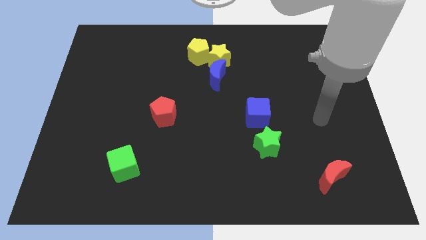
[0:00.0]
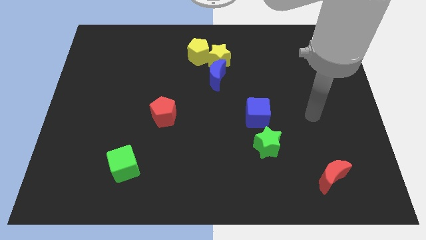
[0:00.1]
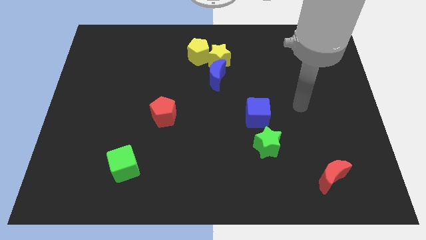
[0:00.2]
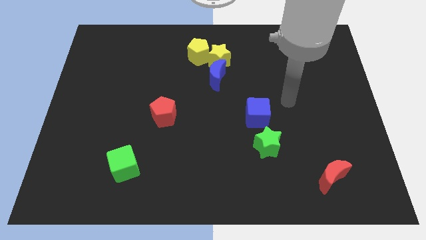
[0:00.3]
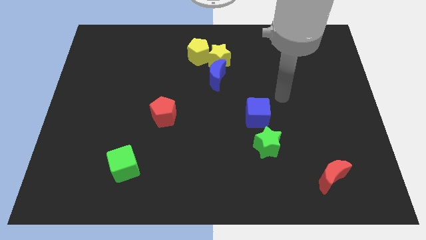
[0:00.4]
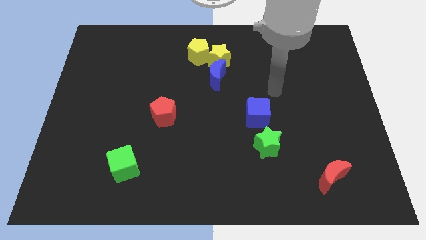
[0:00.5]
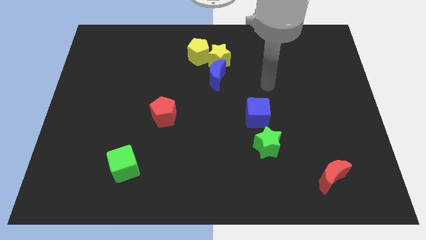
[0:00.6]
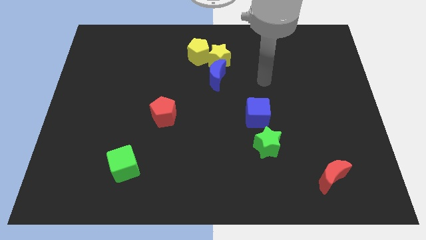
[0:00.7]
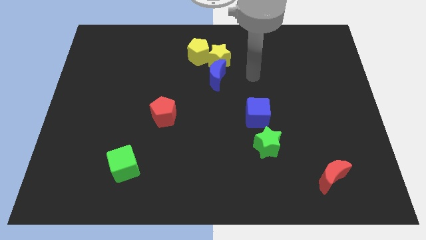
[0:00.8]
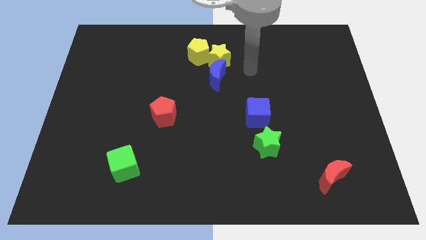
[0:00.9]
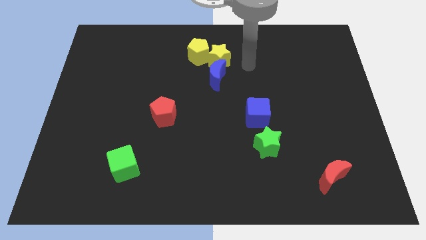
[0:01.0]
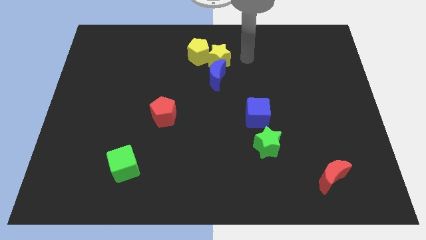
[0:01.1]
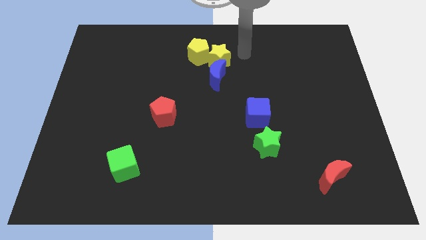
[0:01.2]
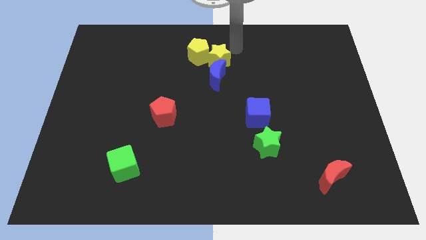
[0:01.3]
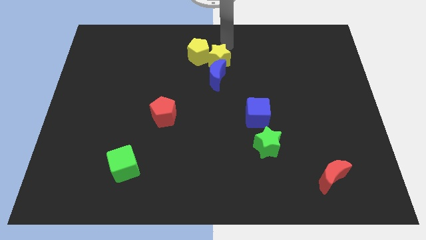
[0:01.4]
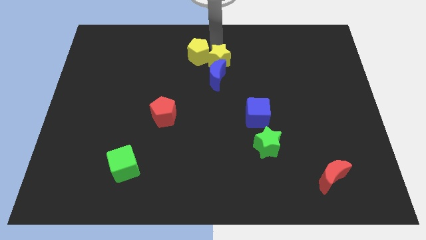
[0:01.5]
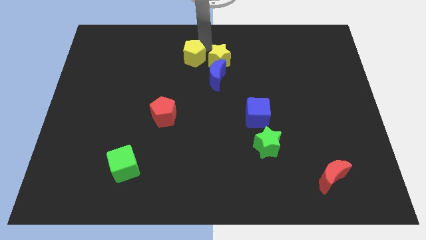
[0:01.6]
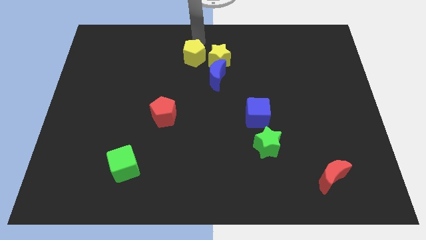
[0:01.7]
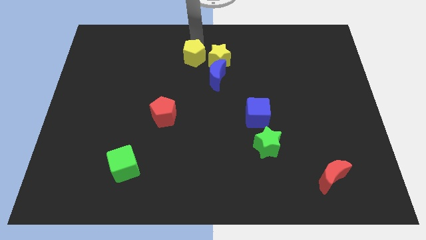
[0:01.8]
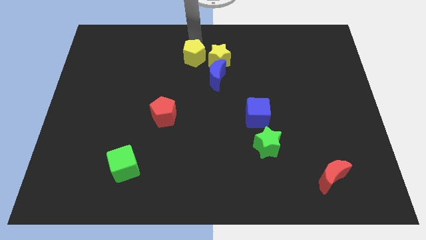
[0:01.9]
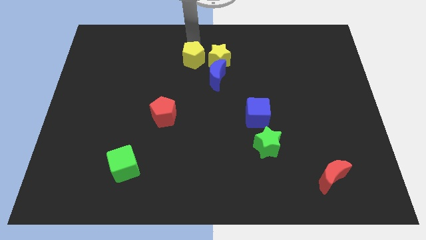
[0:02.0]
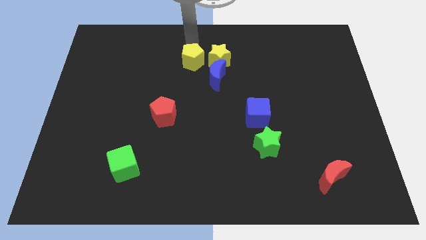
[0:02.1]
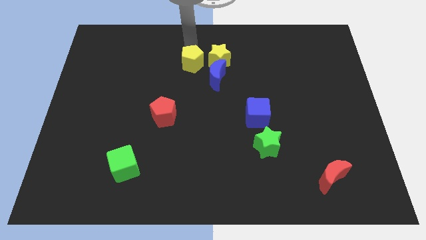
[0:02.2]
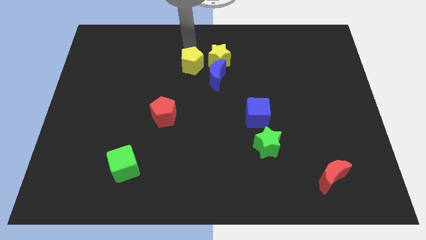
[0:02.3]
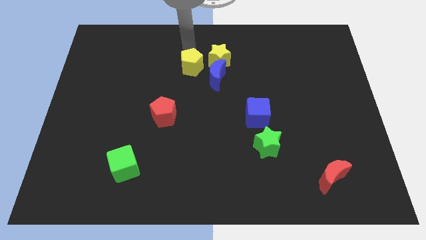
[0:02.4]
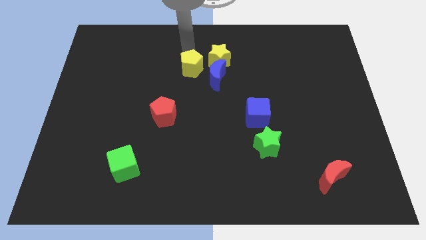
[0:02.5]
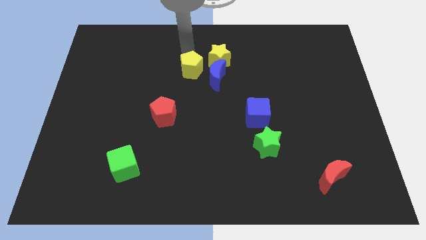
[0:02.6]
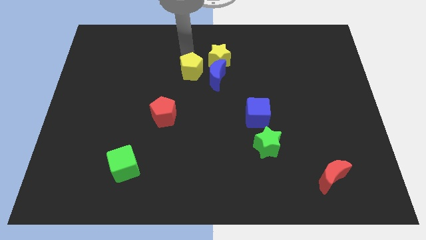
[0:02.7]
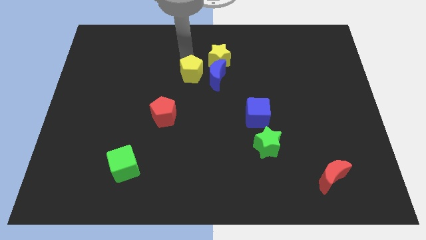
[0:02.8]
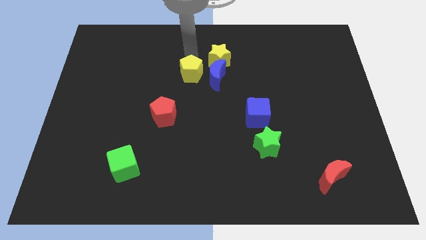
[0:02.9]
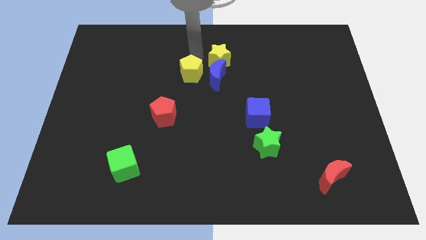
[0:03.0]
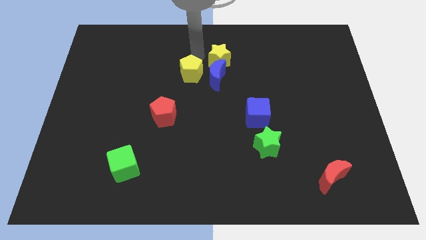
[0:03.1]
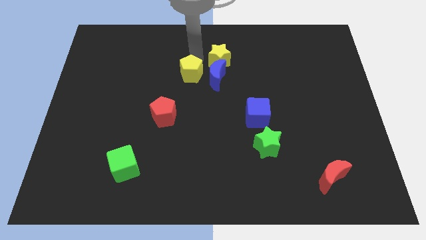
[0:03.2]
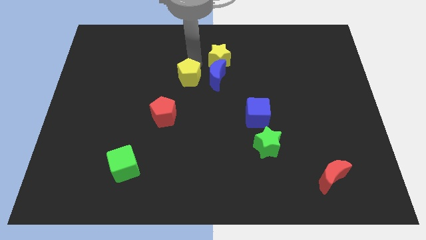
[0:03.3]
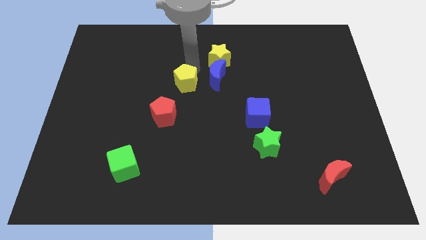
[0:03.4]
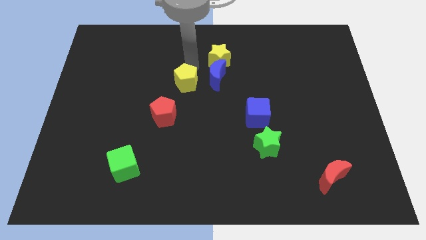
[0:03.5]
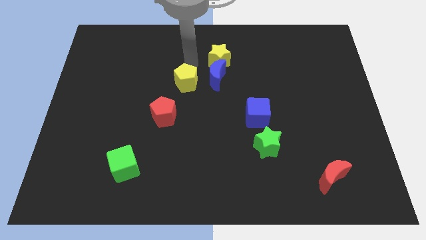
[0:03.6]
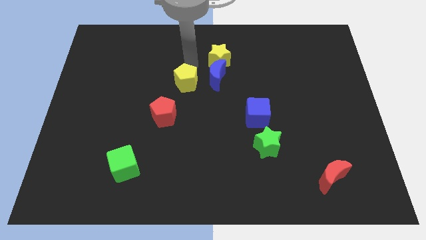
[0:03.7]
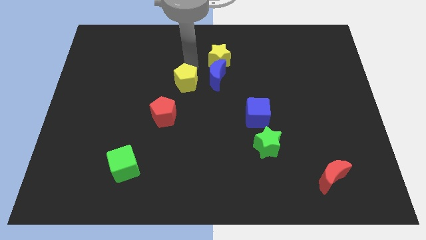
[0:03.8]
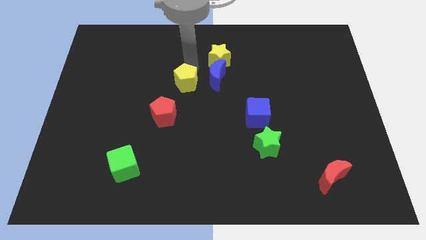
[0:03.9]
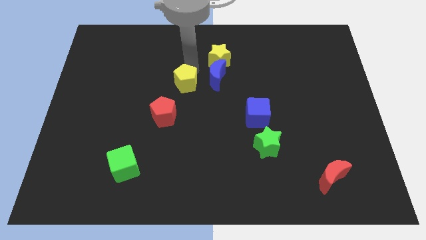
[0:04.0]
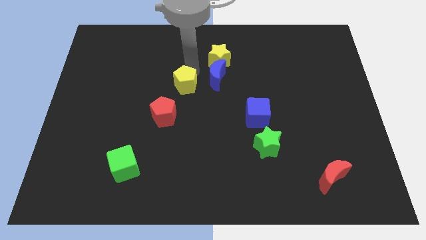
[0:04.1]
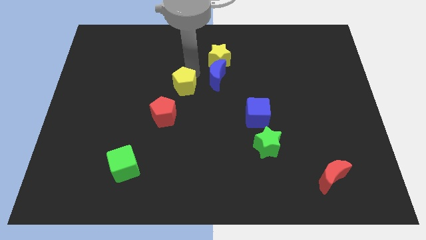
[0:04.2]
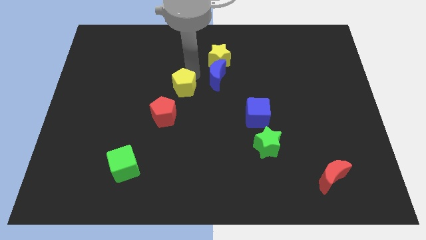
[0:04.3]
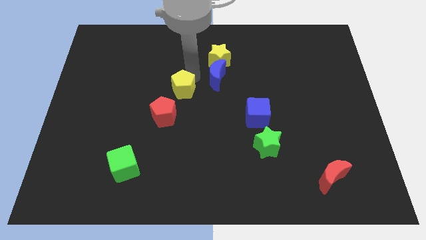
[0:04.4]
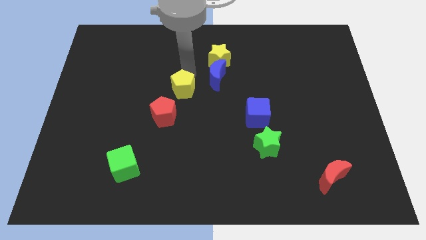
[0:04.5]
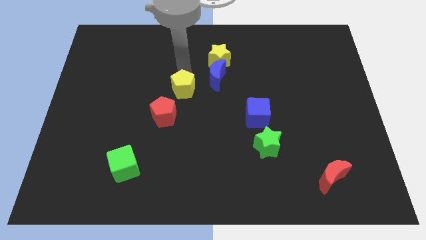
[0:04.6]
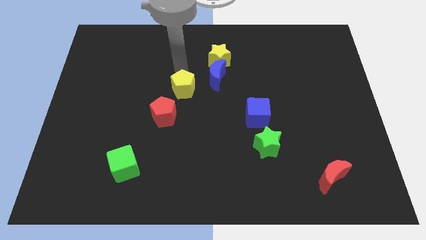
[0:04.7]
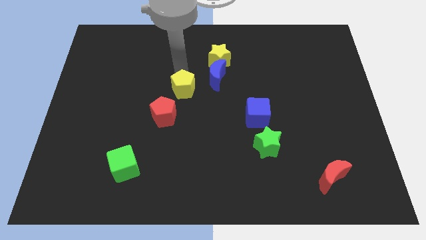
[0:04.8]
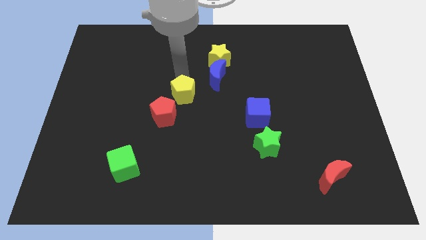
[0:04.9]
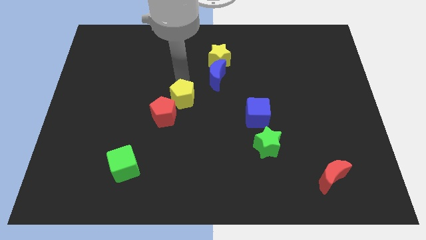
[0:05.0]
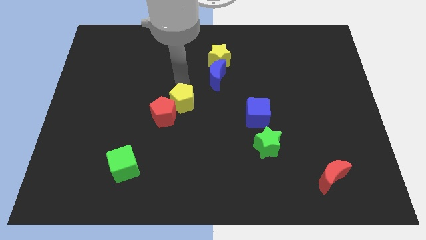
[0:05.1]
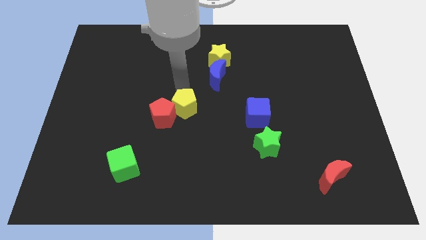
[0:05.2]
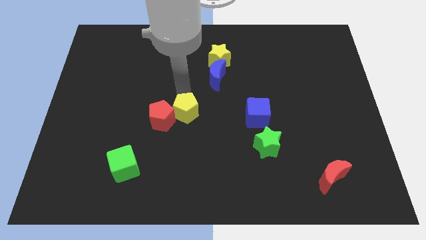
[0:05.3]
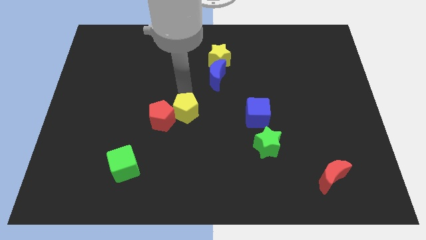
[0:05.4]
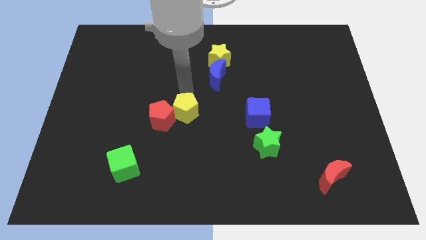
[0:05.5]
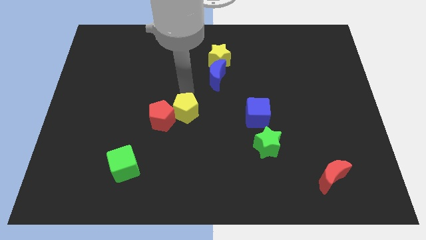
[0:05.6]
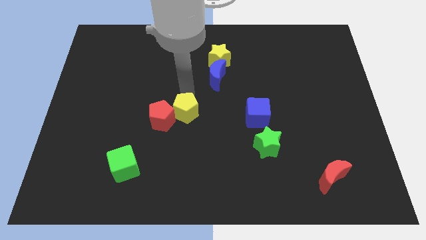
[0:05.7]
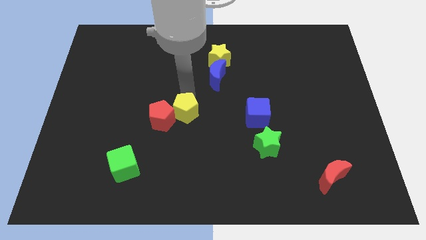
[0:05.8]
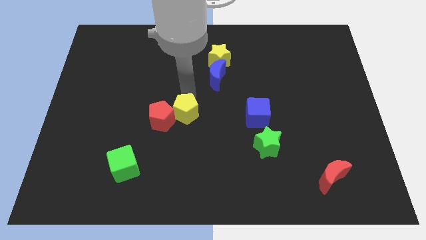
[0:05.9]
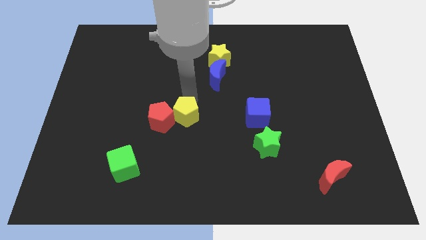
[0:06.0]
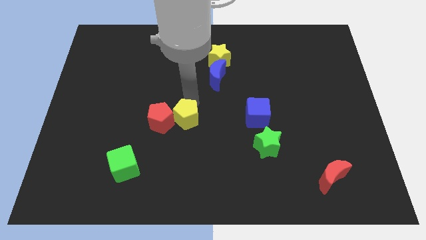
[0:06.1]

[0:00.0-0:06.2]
move the yellow pentagon down

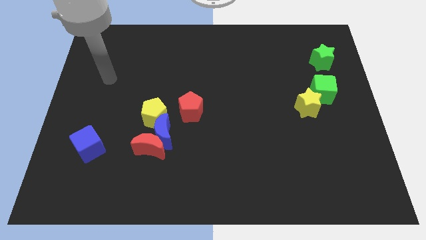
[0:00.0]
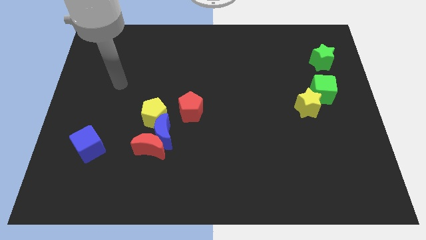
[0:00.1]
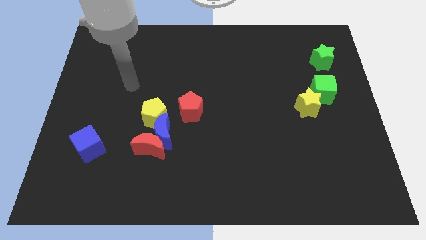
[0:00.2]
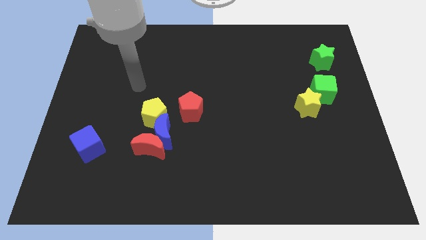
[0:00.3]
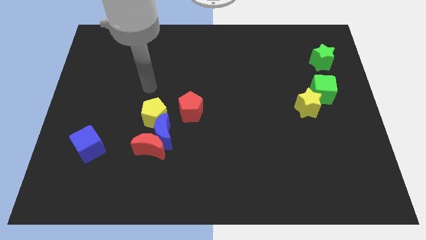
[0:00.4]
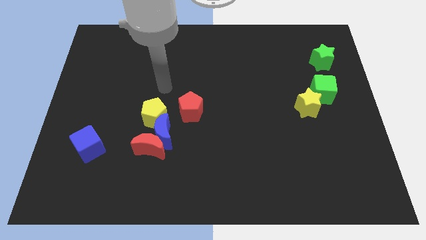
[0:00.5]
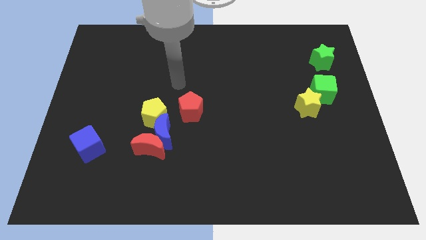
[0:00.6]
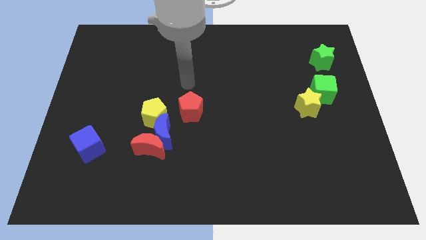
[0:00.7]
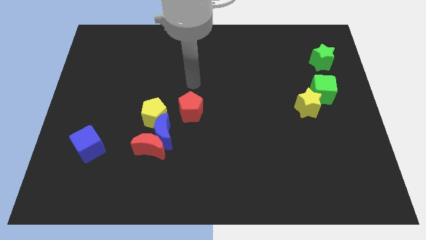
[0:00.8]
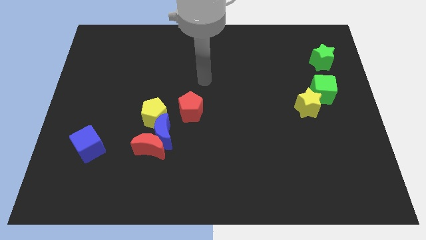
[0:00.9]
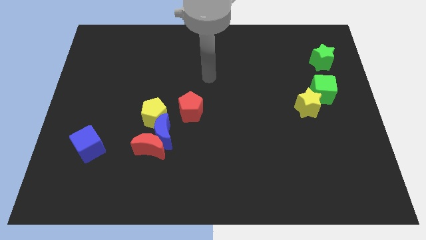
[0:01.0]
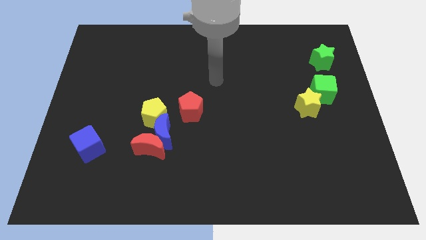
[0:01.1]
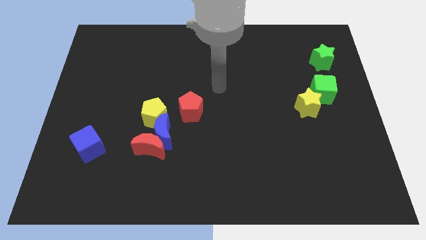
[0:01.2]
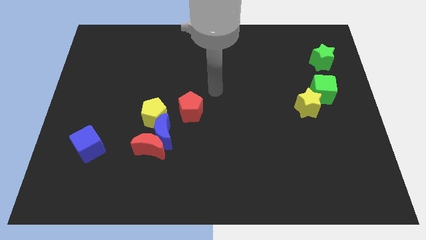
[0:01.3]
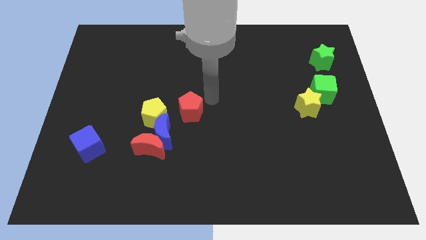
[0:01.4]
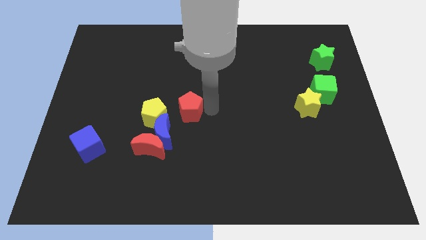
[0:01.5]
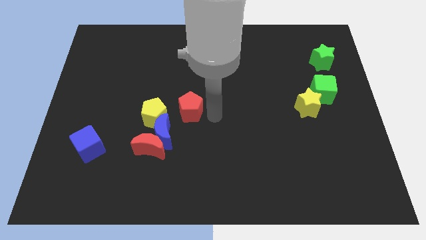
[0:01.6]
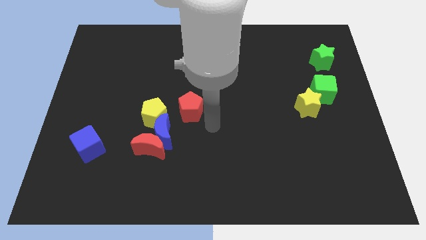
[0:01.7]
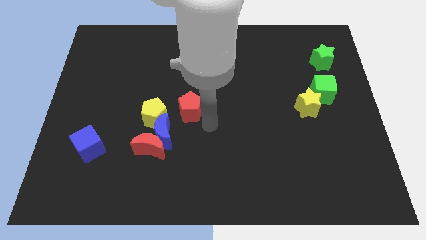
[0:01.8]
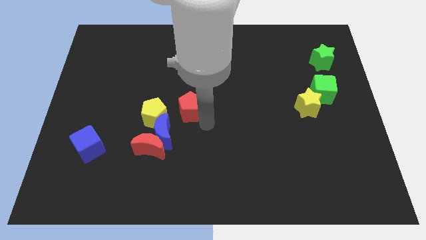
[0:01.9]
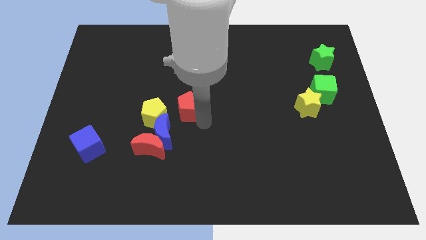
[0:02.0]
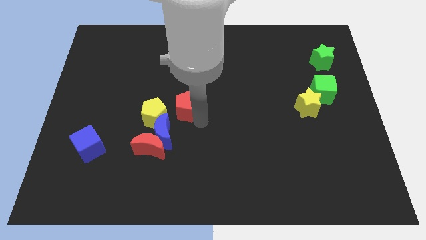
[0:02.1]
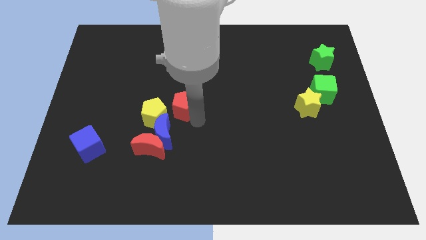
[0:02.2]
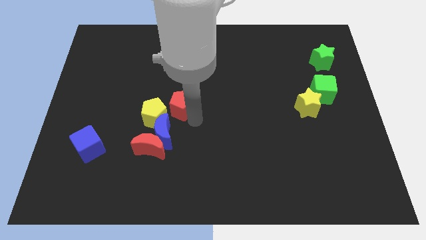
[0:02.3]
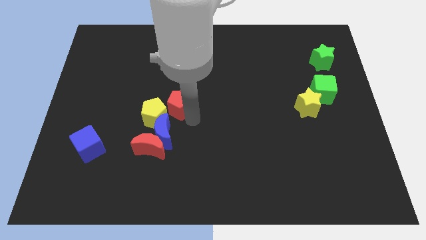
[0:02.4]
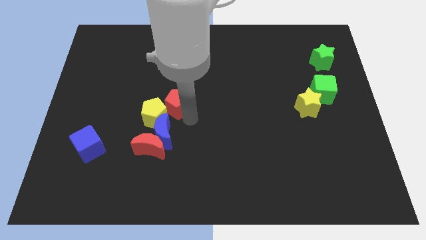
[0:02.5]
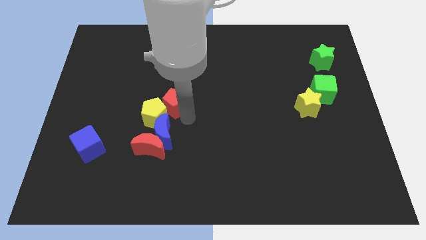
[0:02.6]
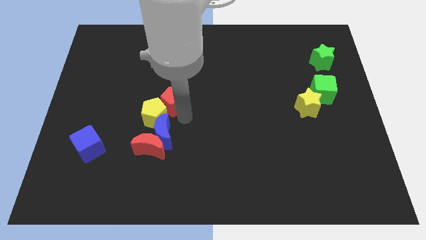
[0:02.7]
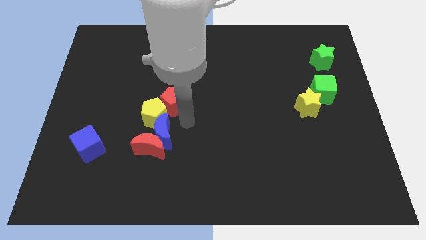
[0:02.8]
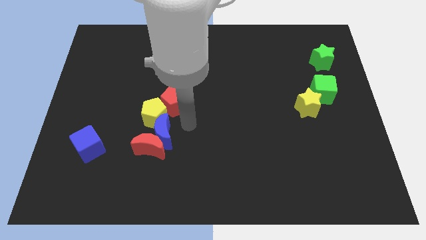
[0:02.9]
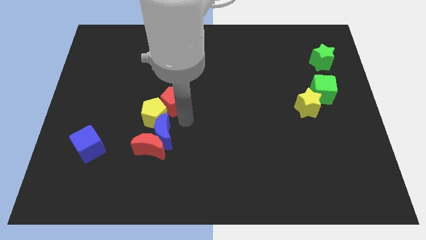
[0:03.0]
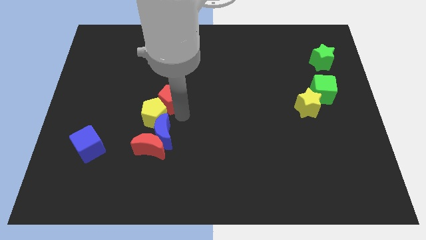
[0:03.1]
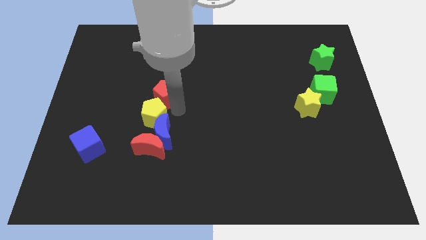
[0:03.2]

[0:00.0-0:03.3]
push the red pentagon diagonally upwards and to the left a bit
